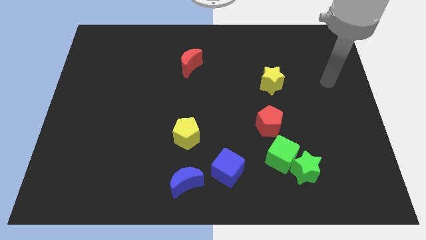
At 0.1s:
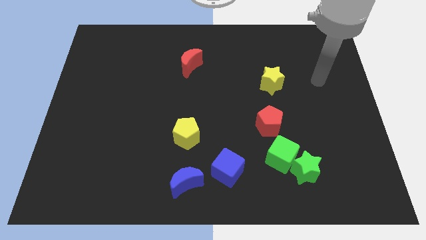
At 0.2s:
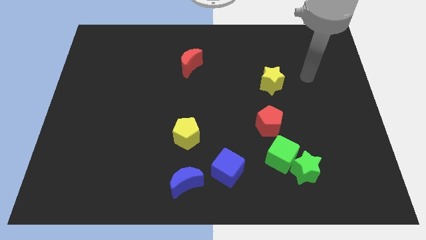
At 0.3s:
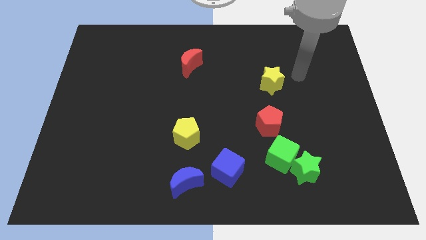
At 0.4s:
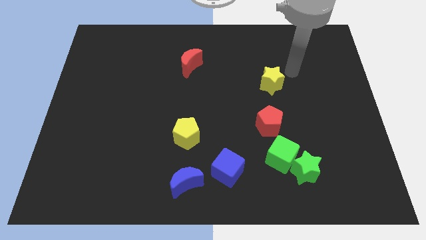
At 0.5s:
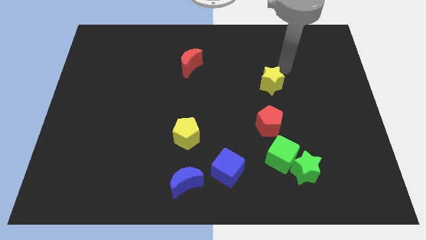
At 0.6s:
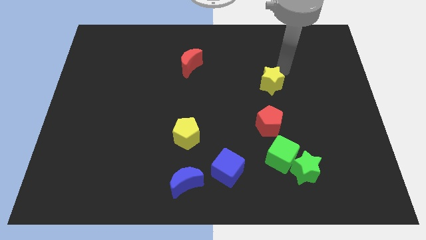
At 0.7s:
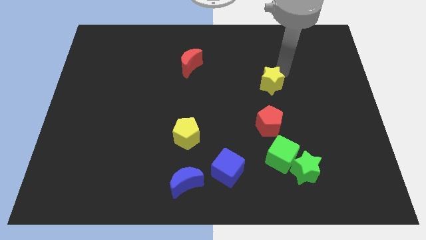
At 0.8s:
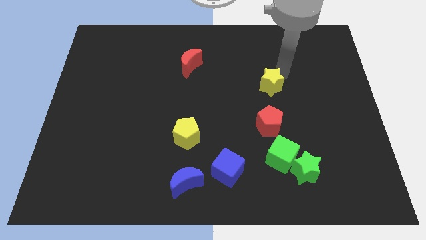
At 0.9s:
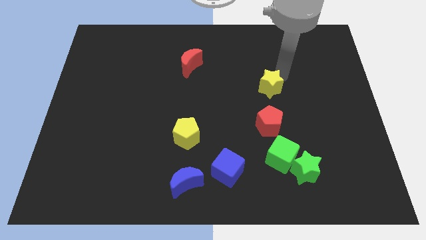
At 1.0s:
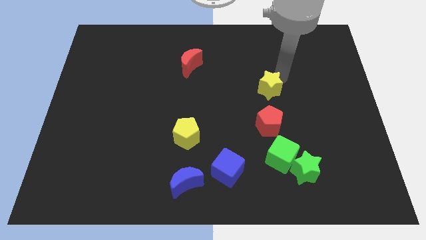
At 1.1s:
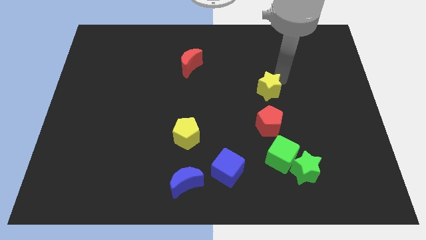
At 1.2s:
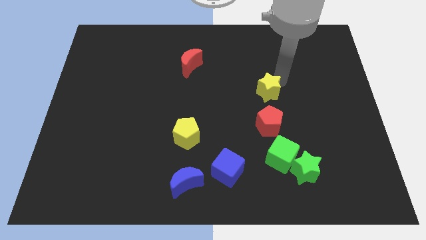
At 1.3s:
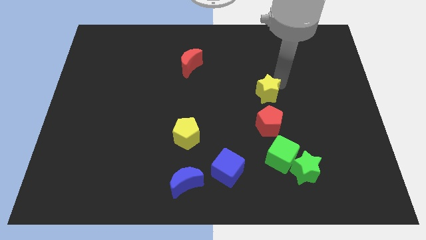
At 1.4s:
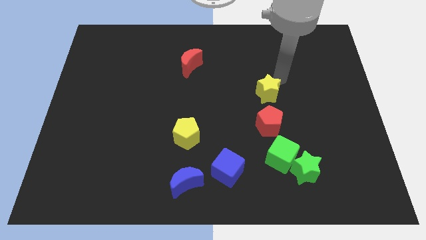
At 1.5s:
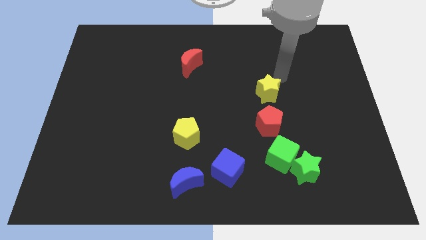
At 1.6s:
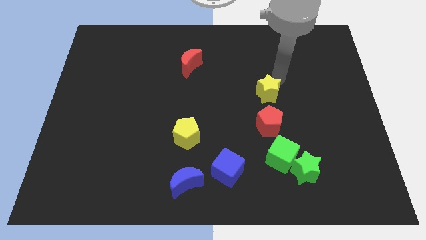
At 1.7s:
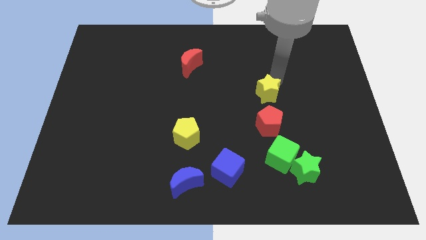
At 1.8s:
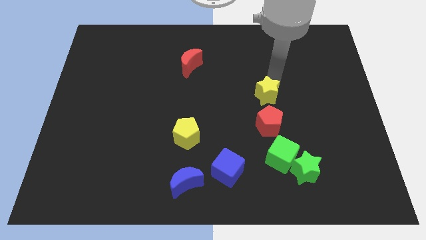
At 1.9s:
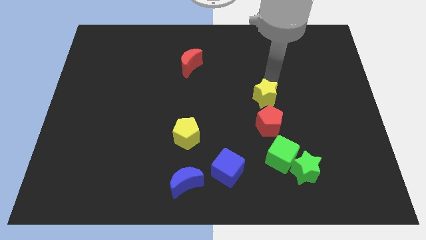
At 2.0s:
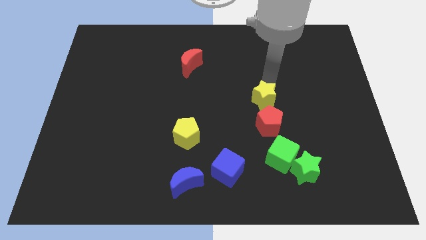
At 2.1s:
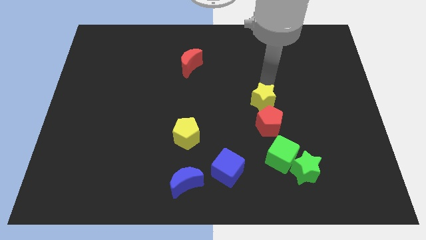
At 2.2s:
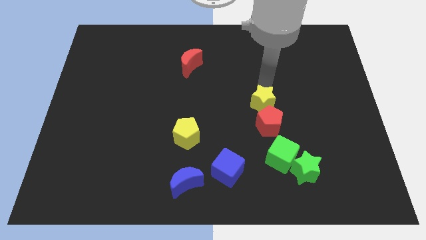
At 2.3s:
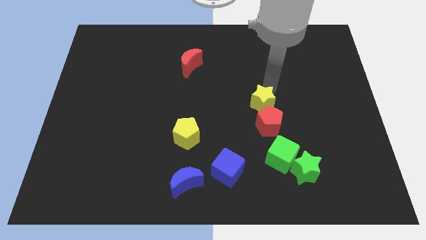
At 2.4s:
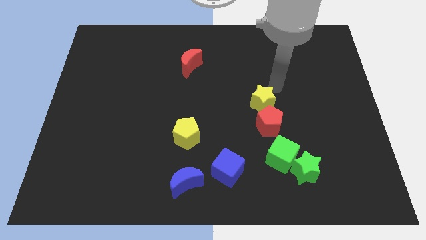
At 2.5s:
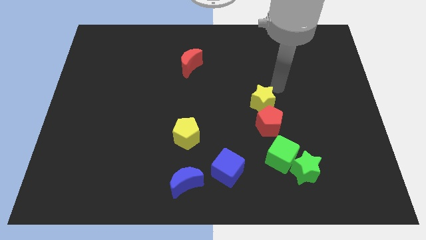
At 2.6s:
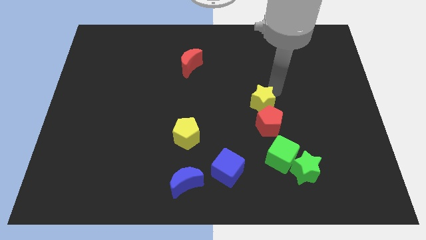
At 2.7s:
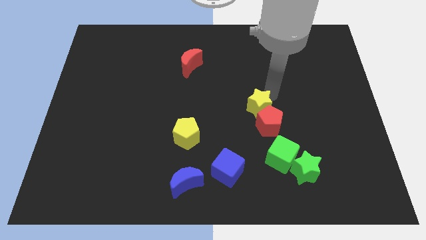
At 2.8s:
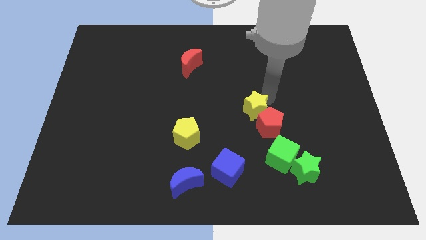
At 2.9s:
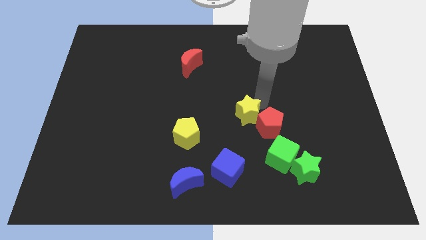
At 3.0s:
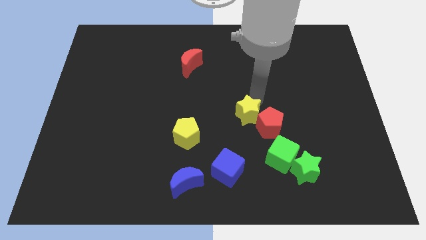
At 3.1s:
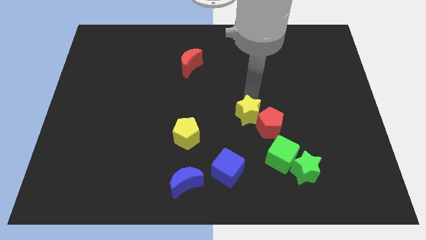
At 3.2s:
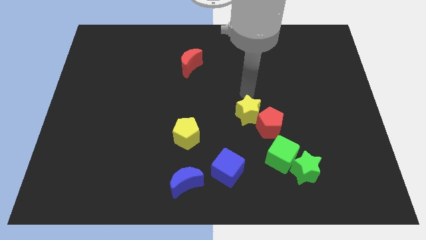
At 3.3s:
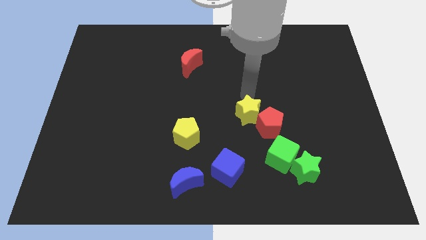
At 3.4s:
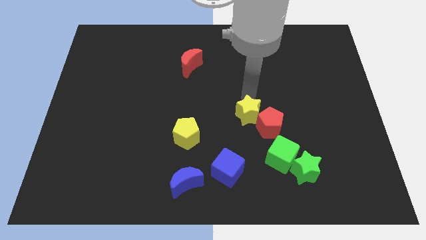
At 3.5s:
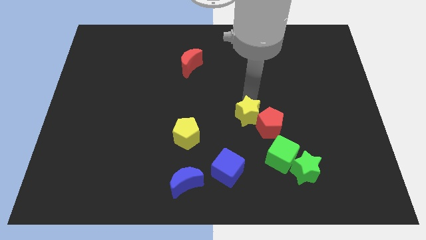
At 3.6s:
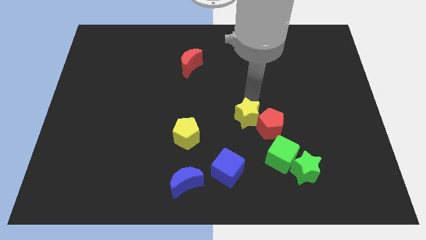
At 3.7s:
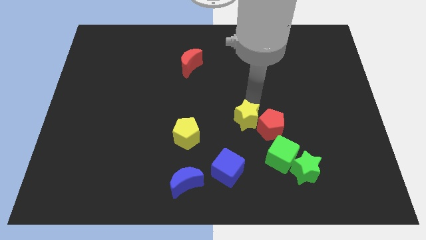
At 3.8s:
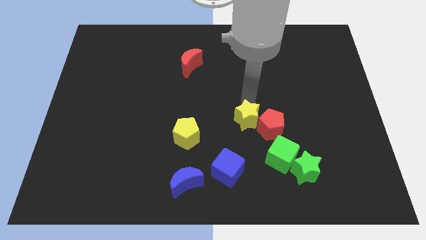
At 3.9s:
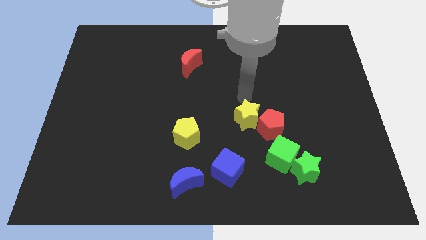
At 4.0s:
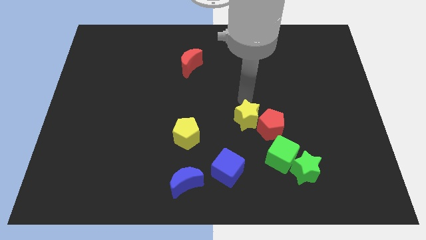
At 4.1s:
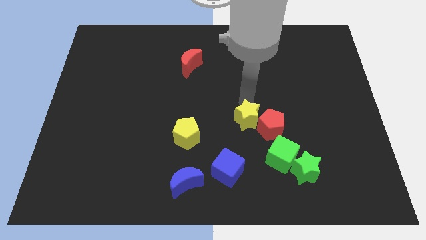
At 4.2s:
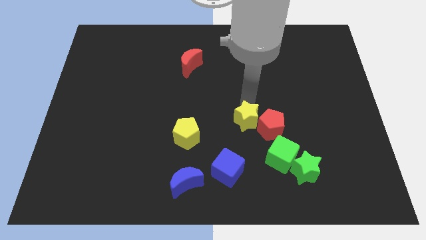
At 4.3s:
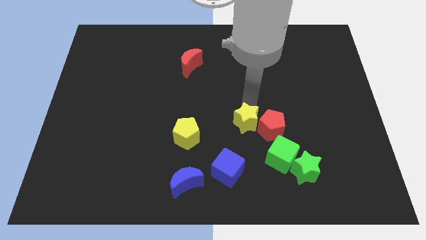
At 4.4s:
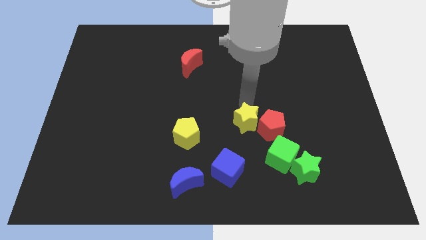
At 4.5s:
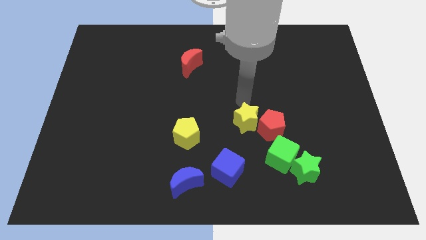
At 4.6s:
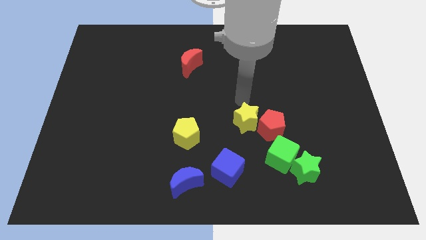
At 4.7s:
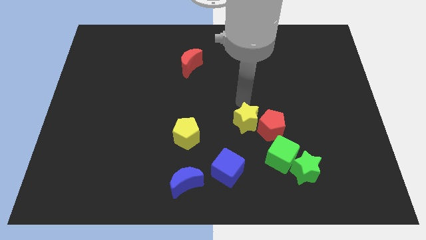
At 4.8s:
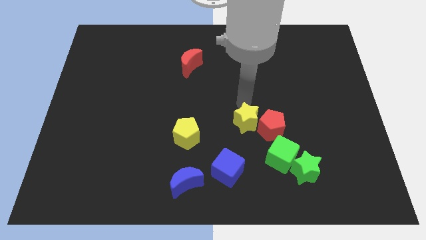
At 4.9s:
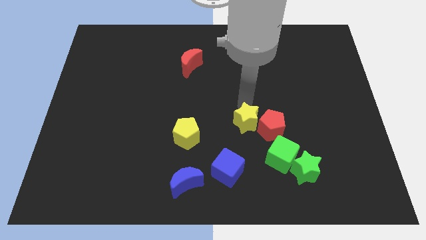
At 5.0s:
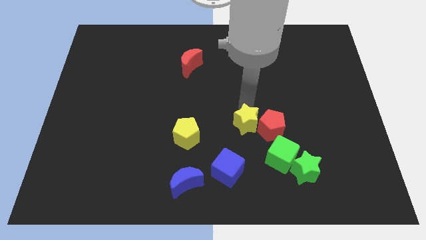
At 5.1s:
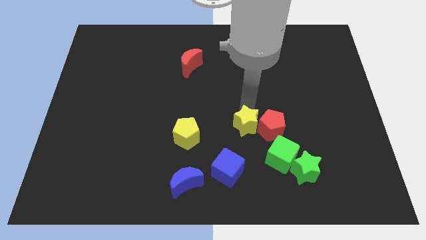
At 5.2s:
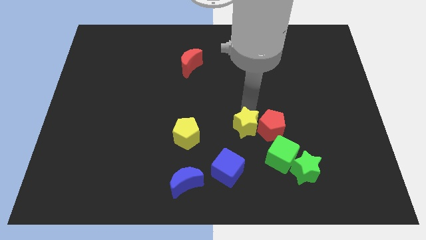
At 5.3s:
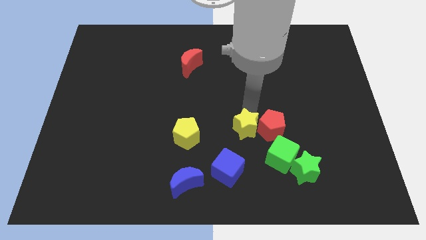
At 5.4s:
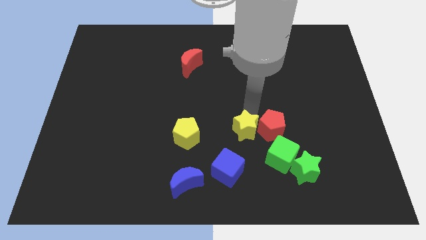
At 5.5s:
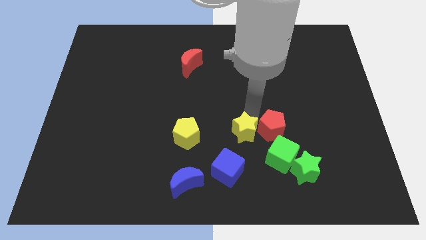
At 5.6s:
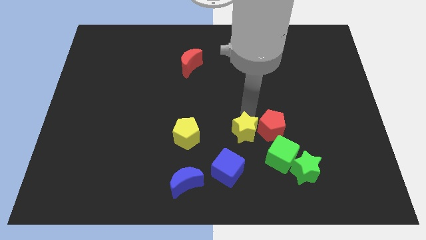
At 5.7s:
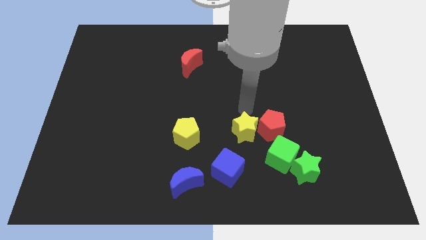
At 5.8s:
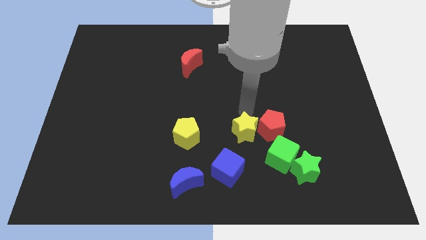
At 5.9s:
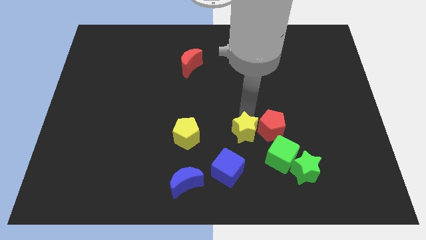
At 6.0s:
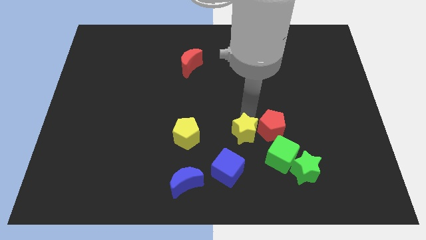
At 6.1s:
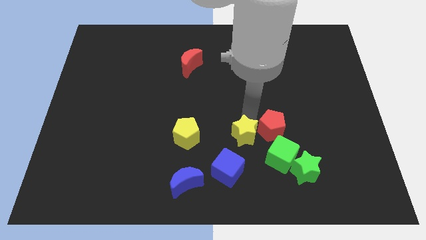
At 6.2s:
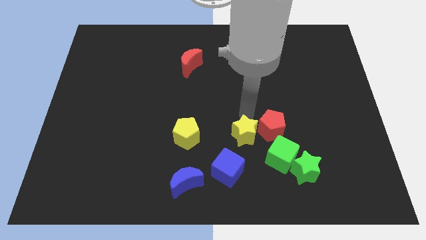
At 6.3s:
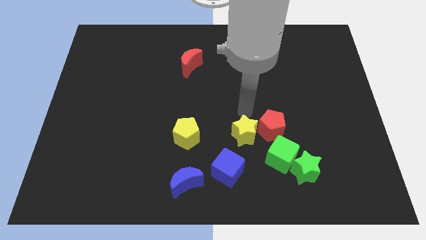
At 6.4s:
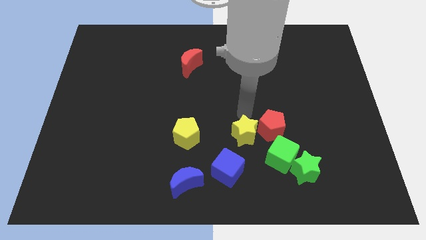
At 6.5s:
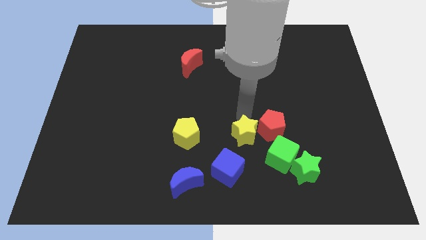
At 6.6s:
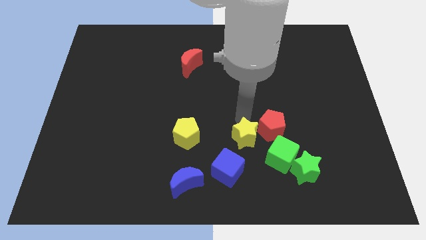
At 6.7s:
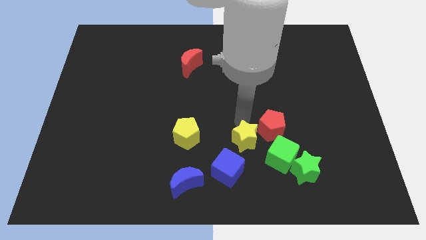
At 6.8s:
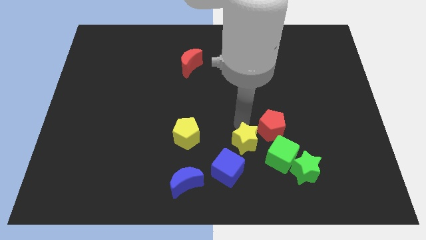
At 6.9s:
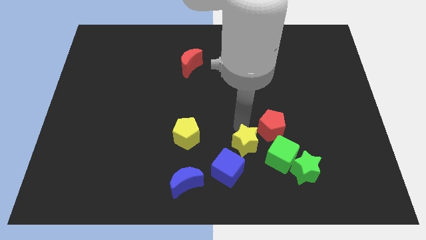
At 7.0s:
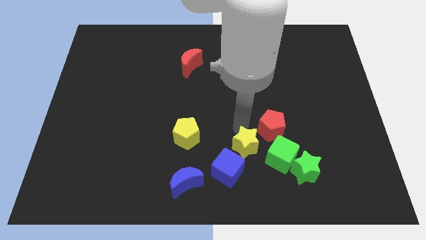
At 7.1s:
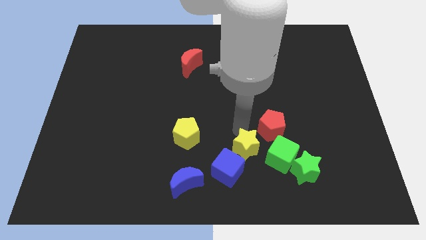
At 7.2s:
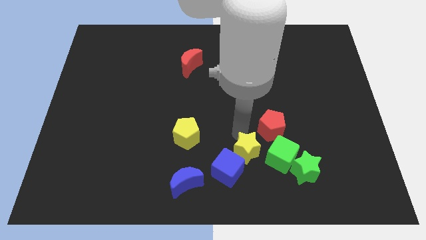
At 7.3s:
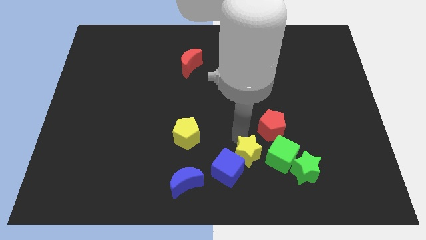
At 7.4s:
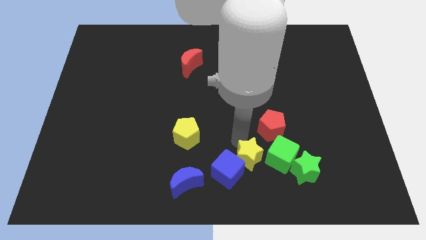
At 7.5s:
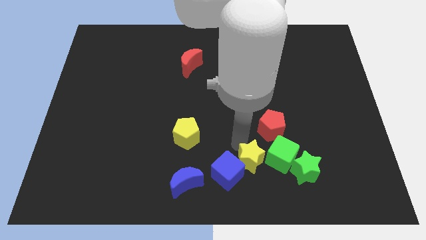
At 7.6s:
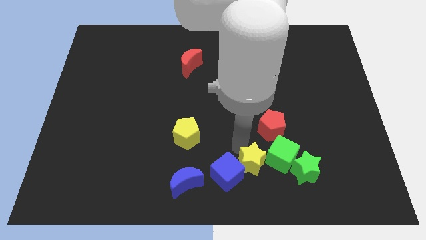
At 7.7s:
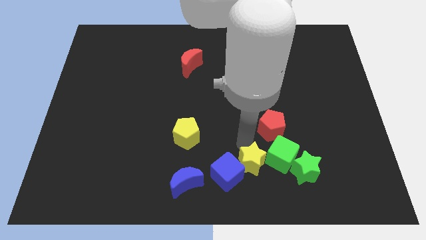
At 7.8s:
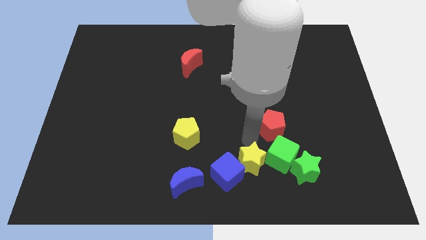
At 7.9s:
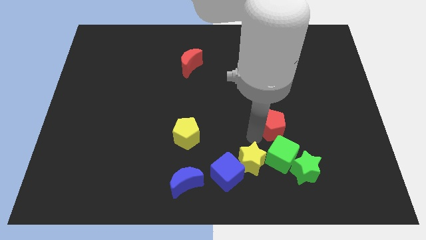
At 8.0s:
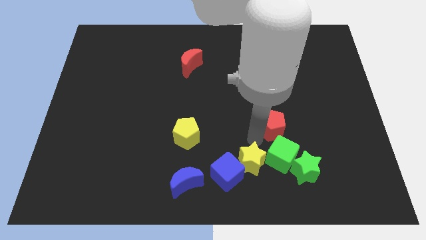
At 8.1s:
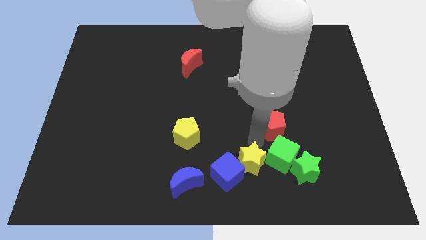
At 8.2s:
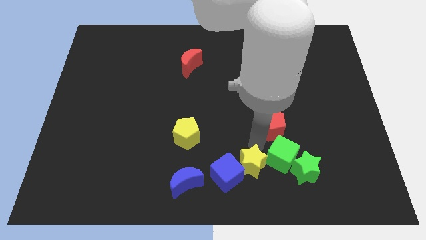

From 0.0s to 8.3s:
move the yellow star to the bottom
